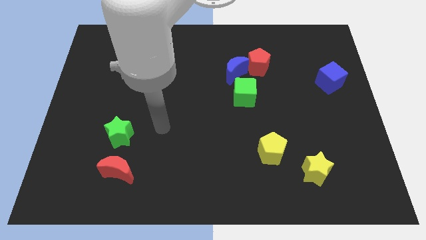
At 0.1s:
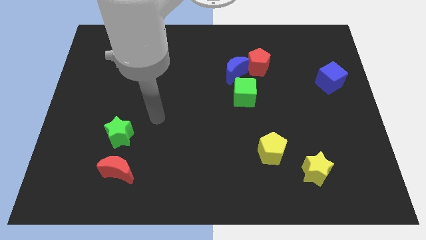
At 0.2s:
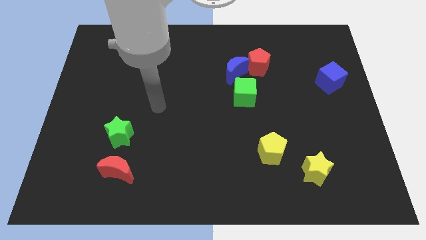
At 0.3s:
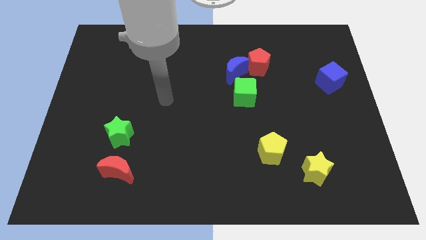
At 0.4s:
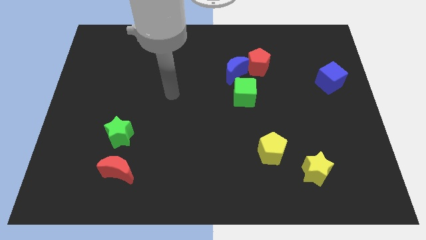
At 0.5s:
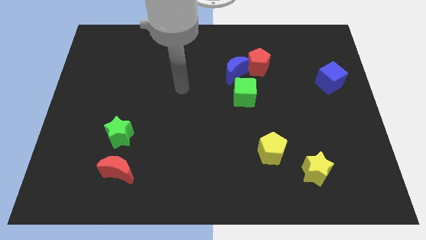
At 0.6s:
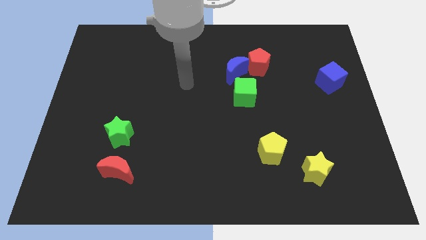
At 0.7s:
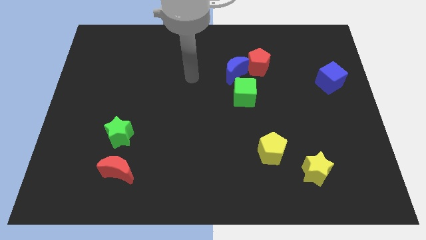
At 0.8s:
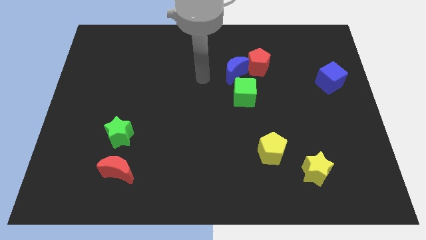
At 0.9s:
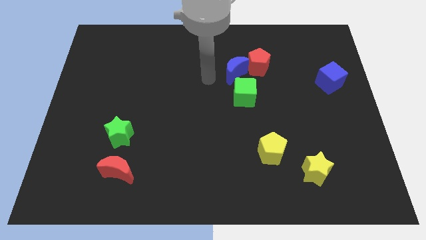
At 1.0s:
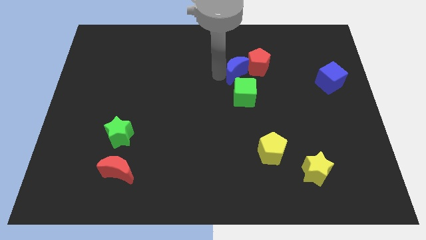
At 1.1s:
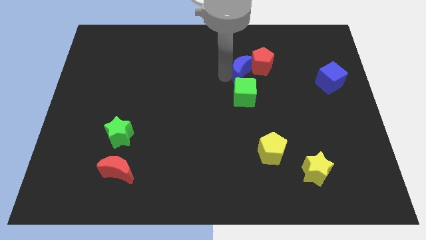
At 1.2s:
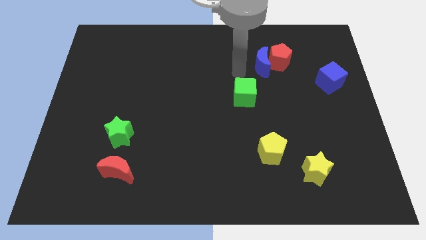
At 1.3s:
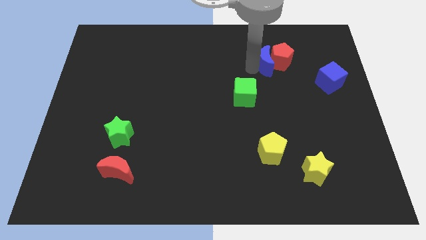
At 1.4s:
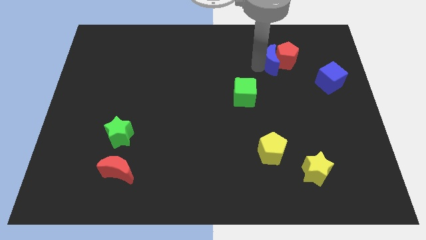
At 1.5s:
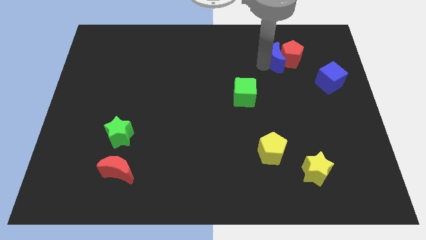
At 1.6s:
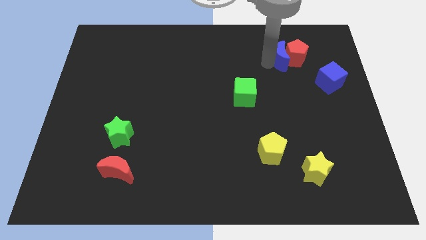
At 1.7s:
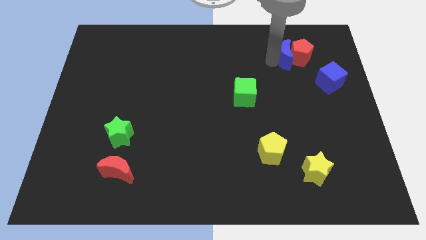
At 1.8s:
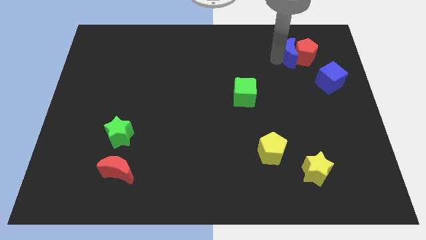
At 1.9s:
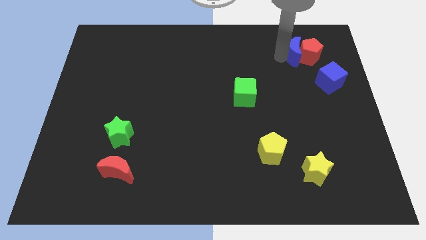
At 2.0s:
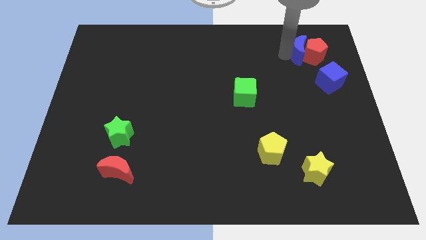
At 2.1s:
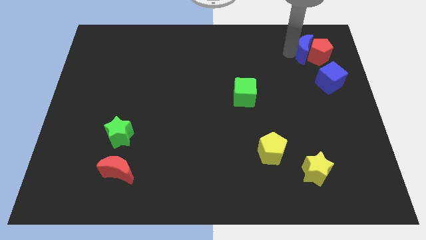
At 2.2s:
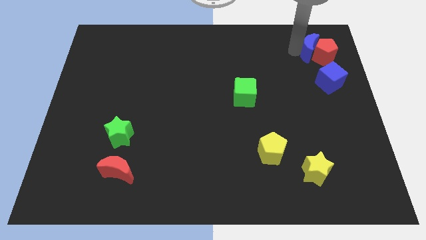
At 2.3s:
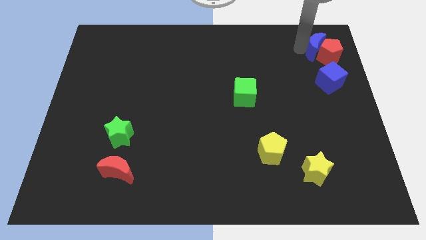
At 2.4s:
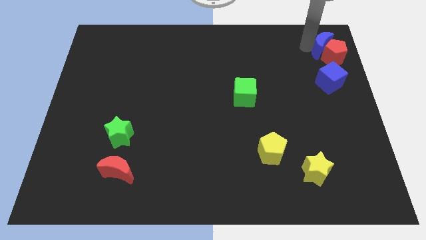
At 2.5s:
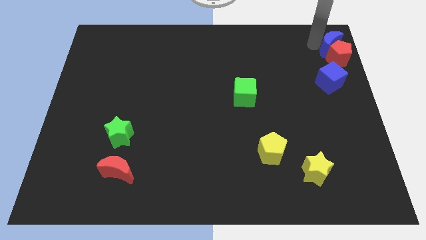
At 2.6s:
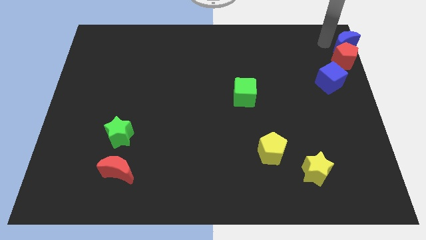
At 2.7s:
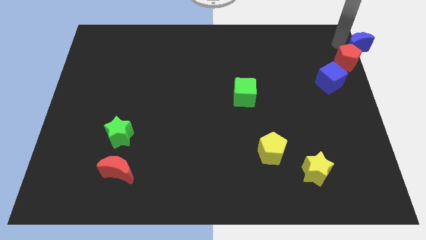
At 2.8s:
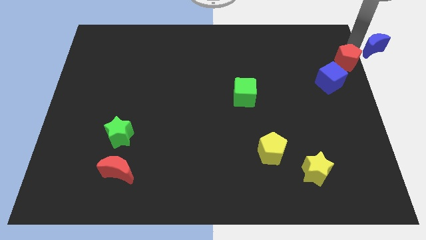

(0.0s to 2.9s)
move the red pentagon away from the blue moon

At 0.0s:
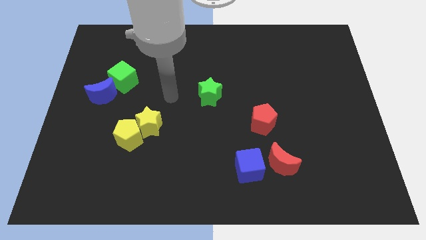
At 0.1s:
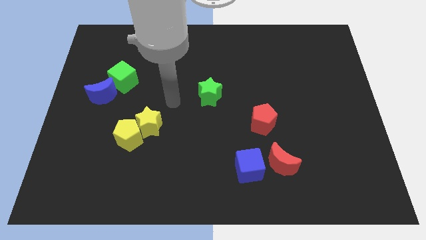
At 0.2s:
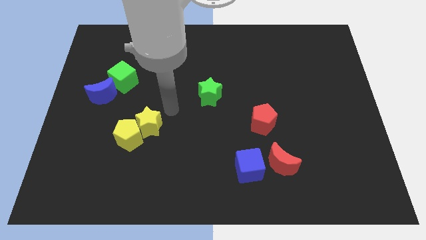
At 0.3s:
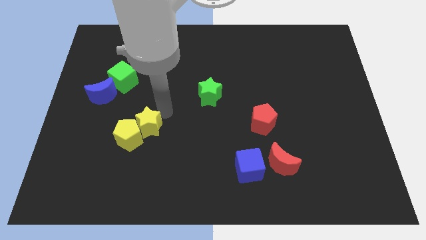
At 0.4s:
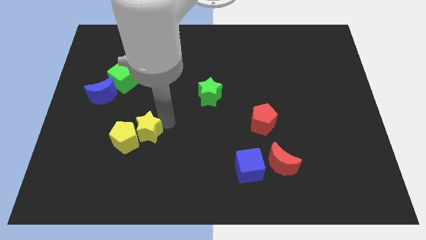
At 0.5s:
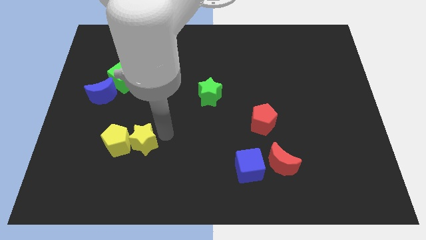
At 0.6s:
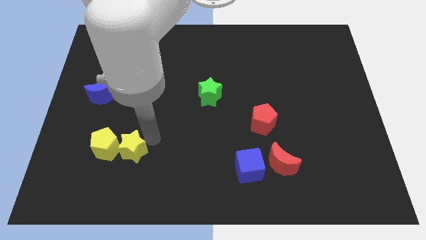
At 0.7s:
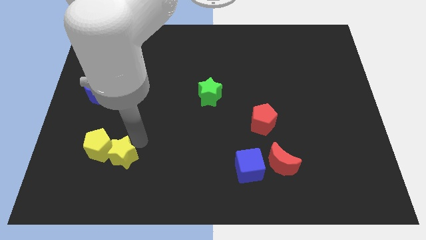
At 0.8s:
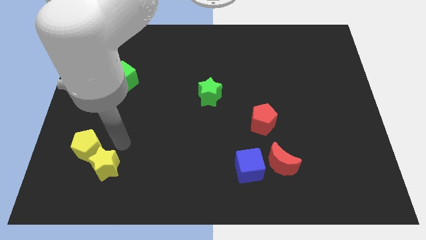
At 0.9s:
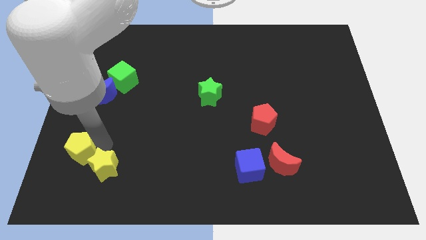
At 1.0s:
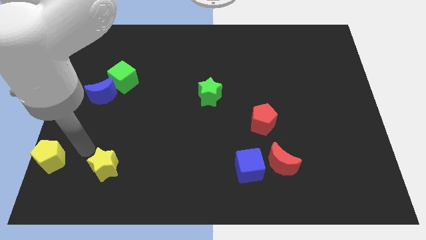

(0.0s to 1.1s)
pull the yellow star apart from the yellow pentagon

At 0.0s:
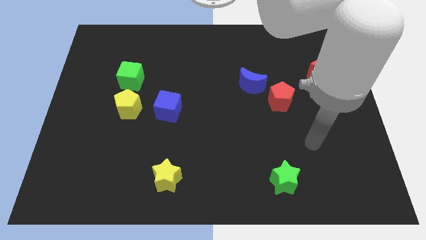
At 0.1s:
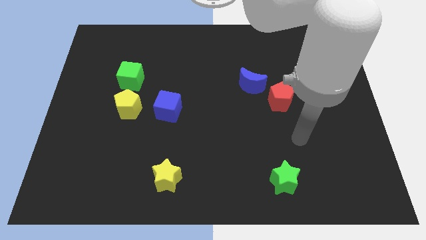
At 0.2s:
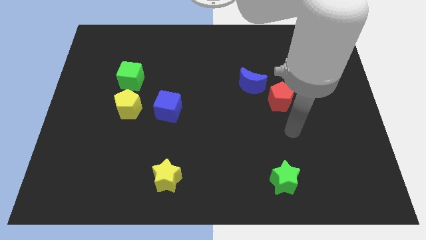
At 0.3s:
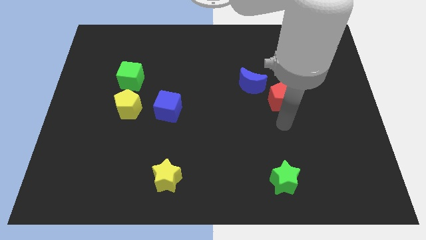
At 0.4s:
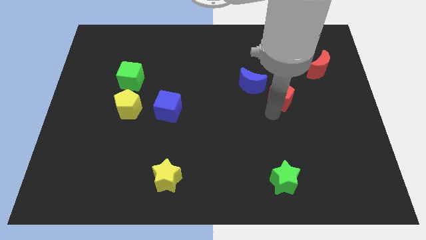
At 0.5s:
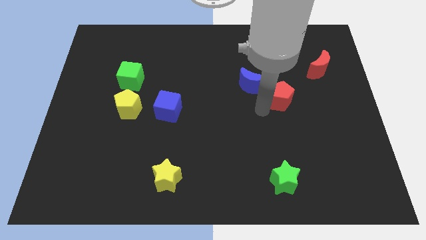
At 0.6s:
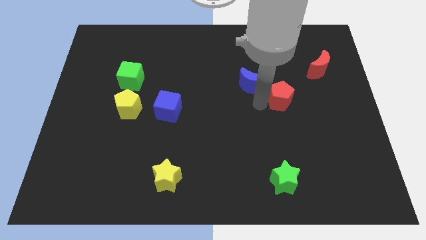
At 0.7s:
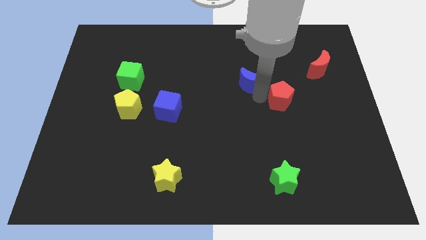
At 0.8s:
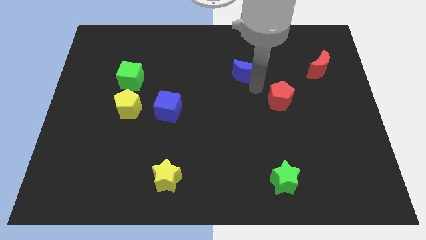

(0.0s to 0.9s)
separate the red pentagon from the blue moon

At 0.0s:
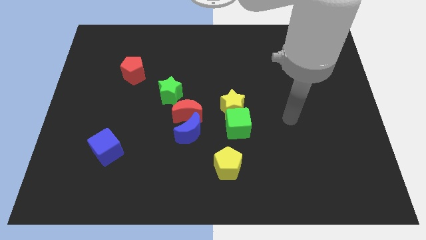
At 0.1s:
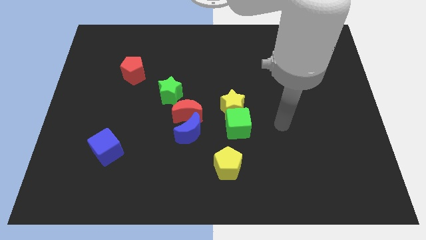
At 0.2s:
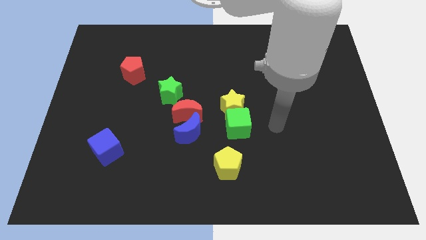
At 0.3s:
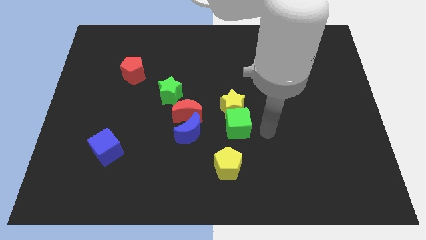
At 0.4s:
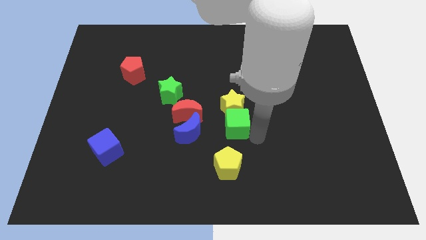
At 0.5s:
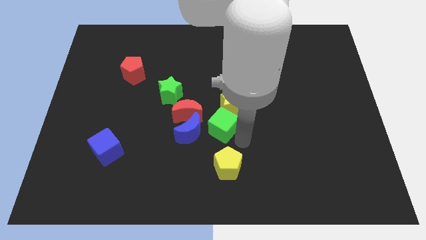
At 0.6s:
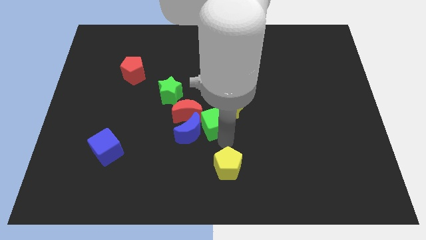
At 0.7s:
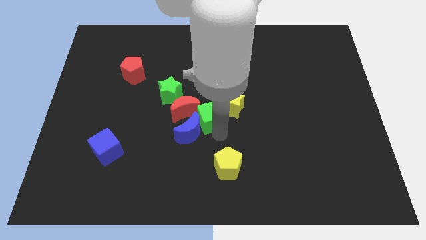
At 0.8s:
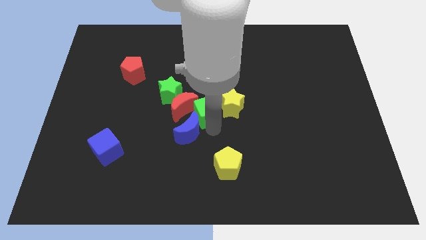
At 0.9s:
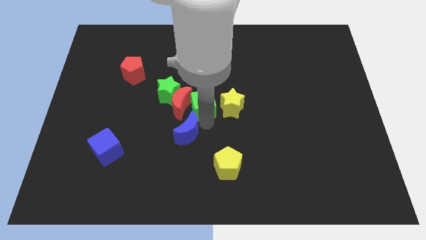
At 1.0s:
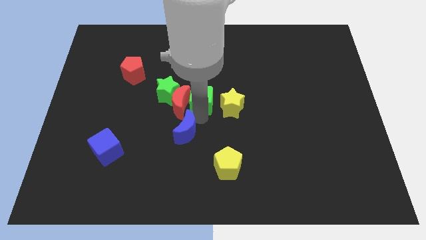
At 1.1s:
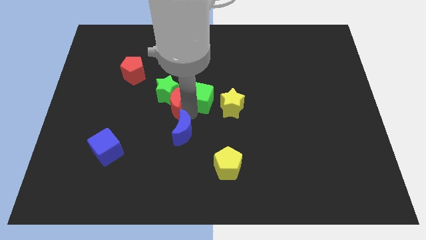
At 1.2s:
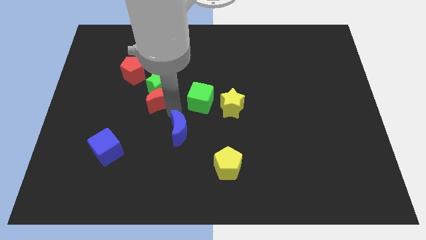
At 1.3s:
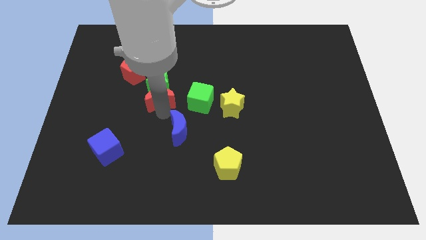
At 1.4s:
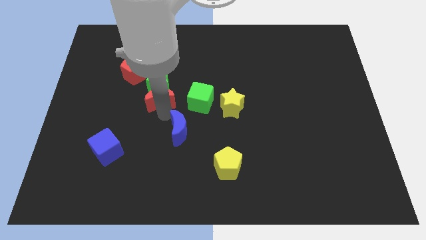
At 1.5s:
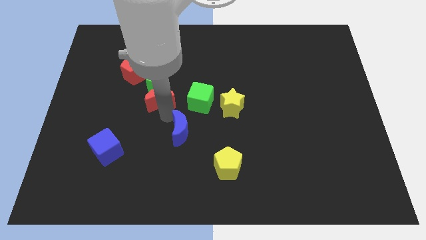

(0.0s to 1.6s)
pull the blue moon apart from the red moon

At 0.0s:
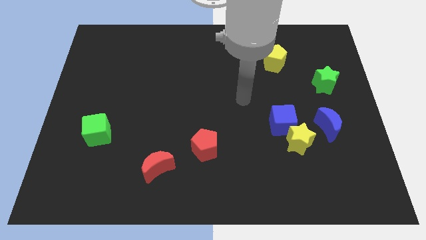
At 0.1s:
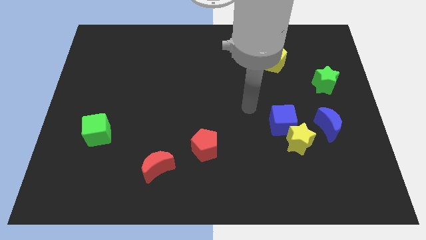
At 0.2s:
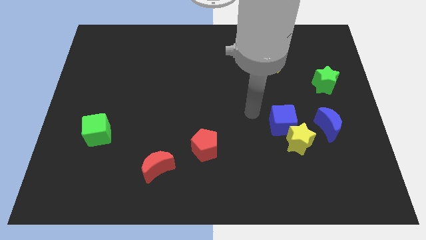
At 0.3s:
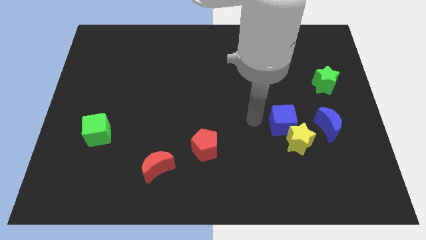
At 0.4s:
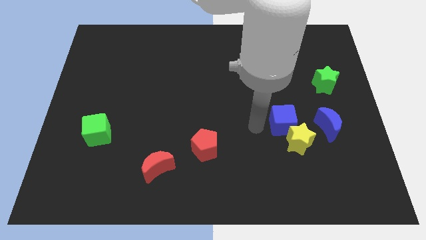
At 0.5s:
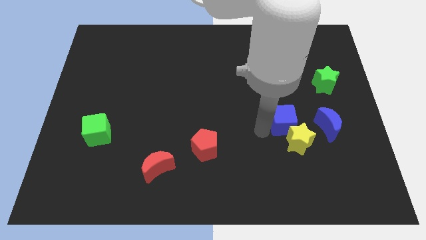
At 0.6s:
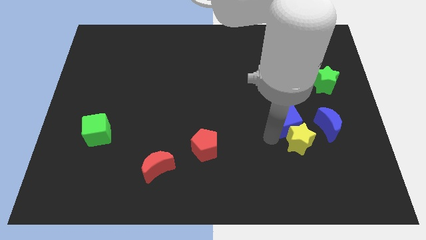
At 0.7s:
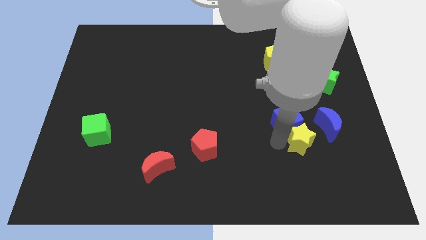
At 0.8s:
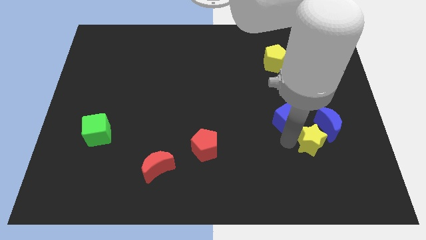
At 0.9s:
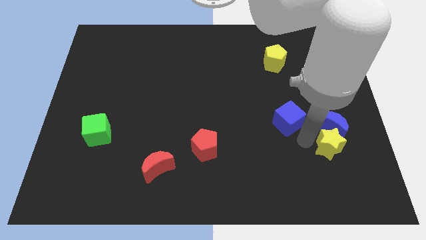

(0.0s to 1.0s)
pull the blue cube apart from the yellow star

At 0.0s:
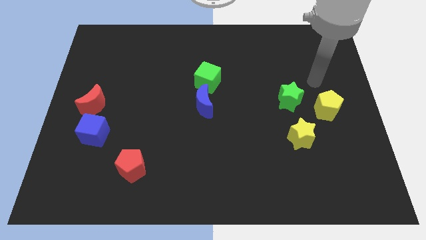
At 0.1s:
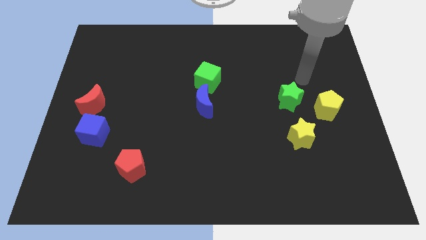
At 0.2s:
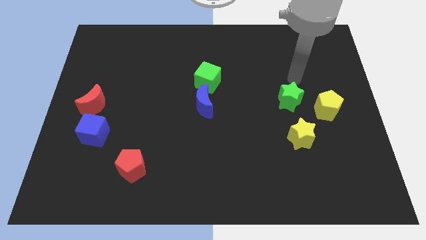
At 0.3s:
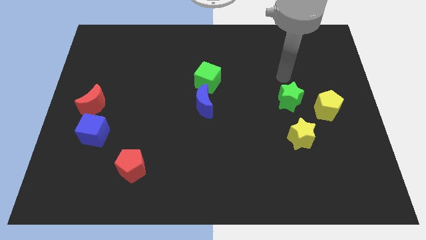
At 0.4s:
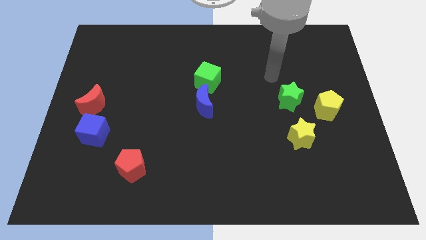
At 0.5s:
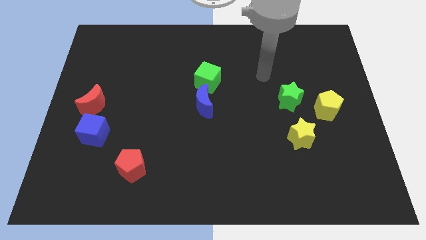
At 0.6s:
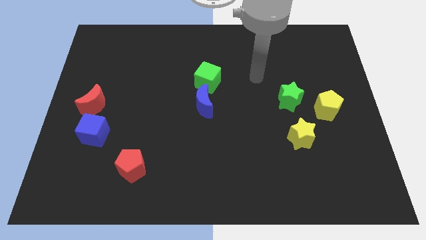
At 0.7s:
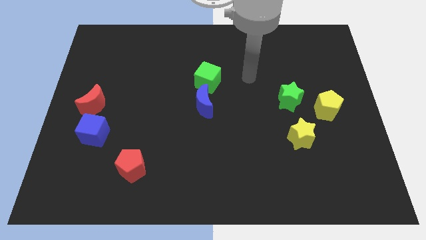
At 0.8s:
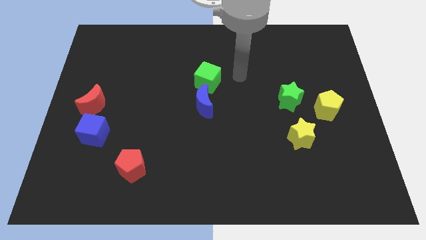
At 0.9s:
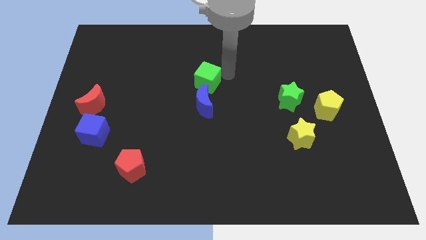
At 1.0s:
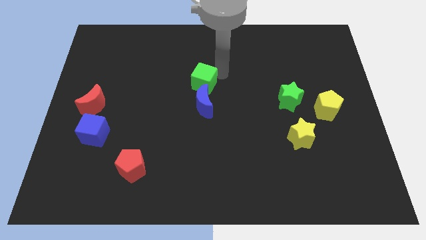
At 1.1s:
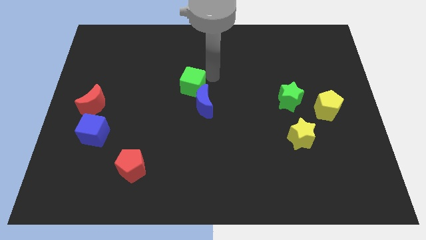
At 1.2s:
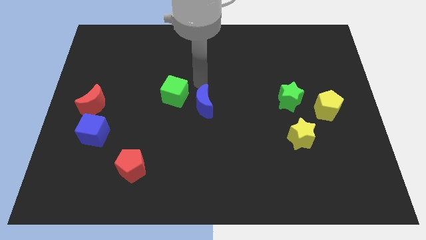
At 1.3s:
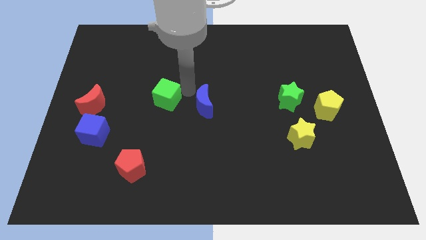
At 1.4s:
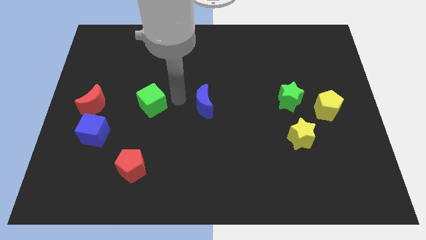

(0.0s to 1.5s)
move the blue moon away from the green cube

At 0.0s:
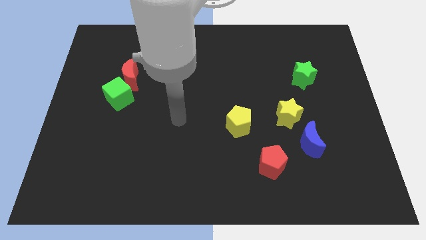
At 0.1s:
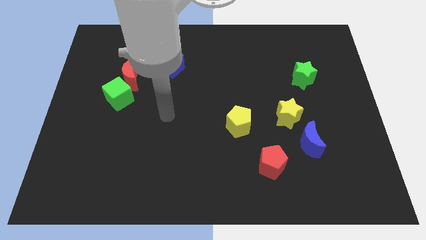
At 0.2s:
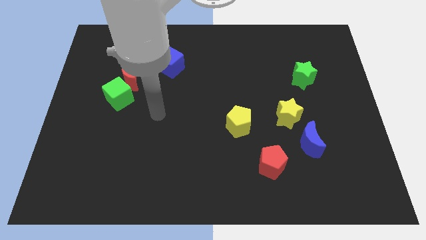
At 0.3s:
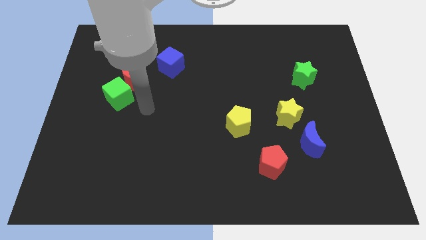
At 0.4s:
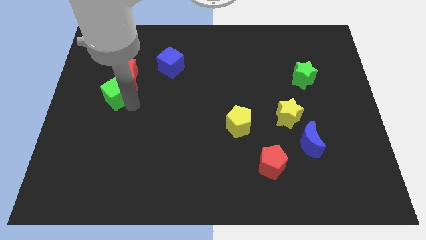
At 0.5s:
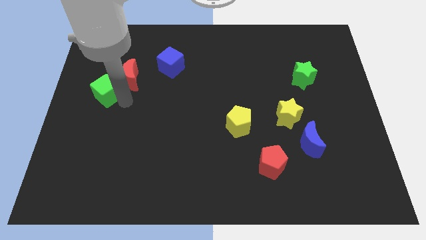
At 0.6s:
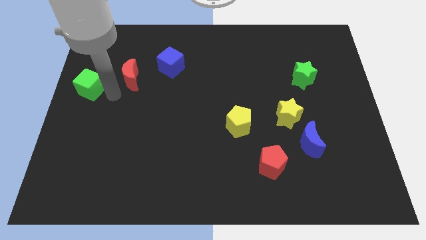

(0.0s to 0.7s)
separate the red moon from the green cube
